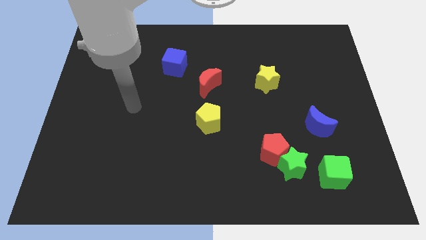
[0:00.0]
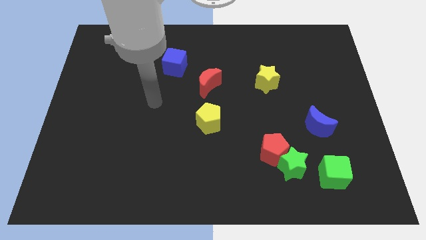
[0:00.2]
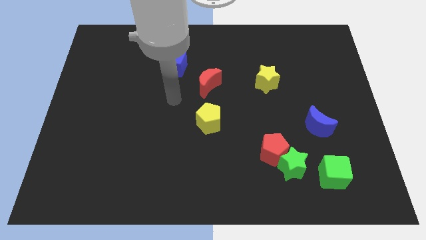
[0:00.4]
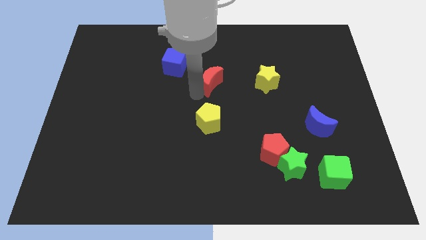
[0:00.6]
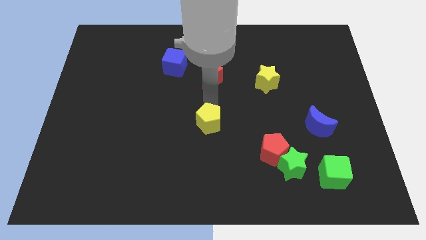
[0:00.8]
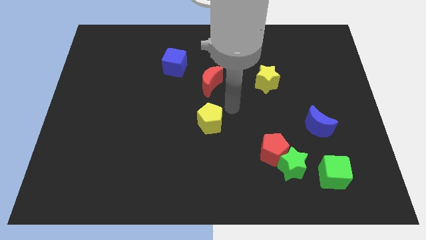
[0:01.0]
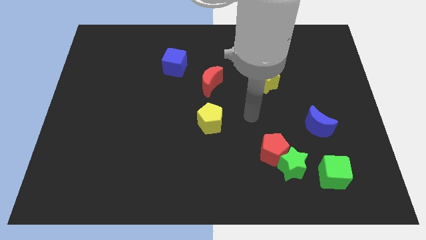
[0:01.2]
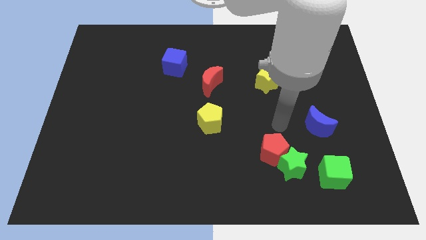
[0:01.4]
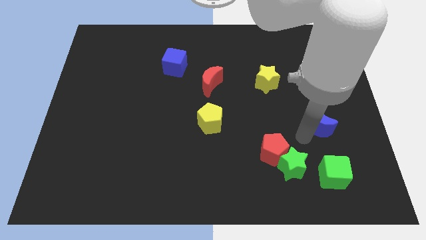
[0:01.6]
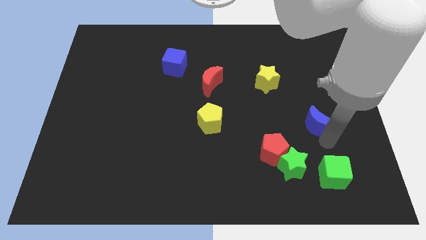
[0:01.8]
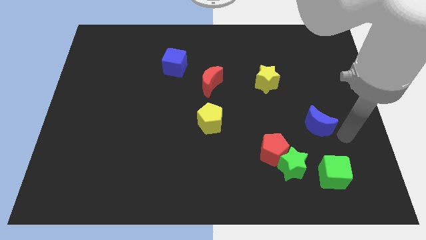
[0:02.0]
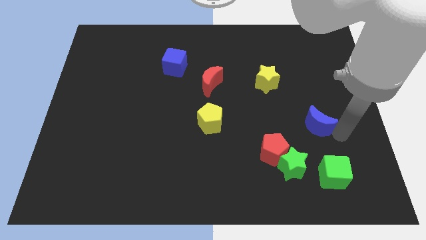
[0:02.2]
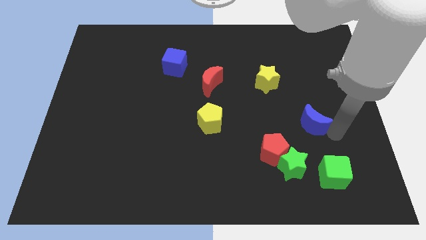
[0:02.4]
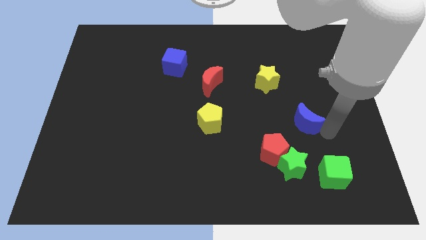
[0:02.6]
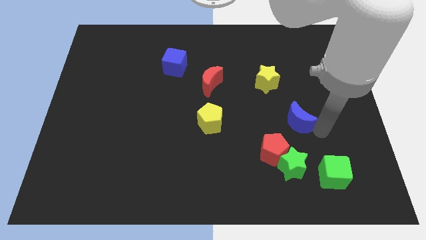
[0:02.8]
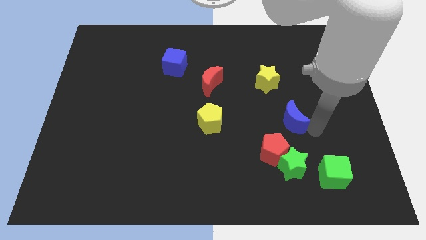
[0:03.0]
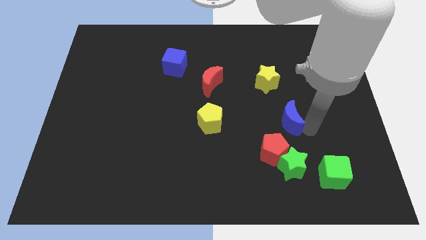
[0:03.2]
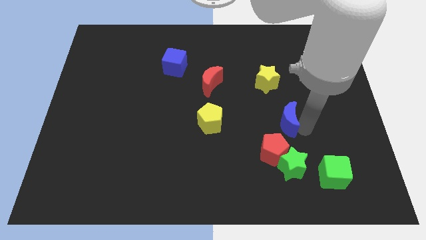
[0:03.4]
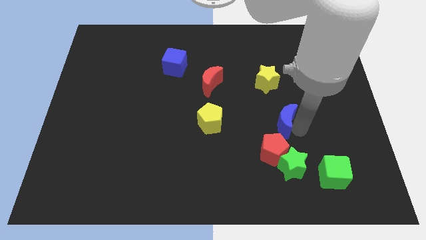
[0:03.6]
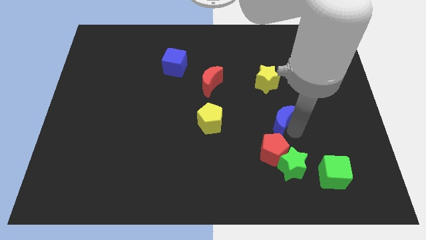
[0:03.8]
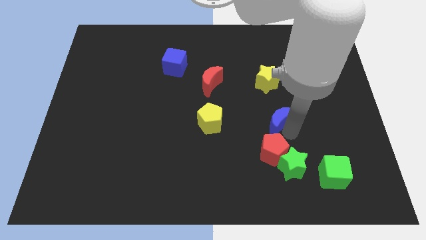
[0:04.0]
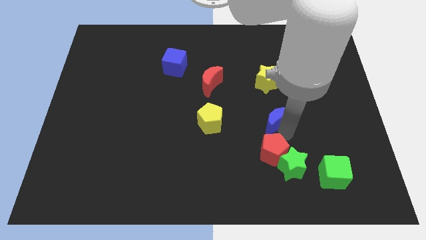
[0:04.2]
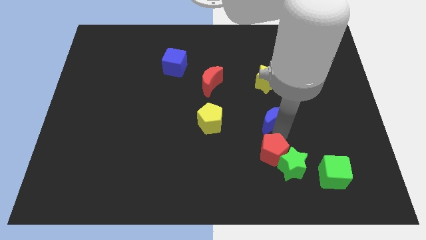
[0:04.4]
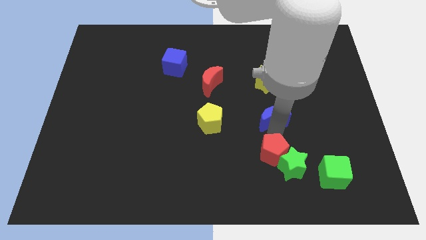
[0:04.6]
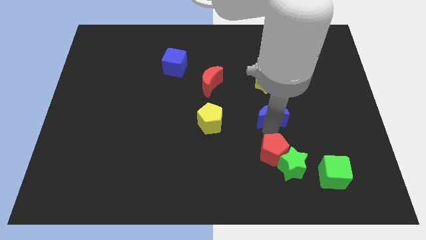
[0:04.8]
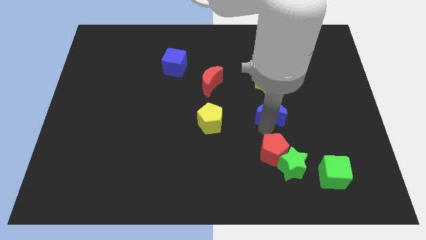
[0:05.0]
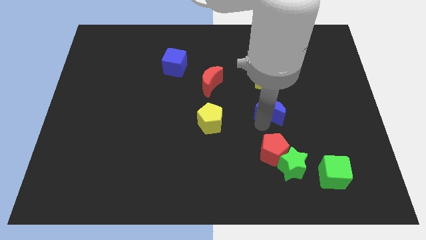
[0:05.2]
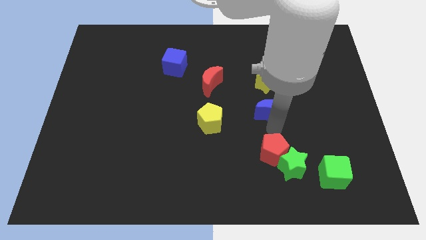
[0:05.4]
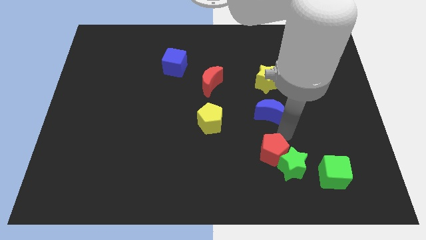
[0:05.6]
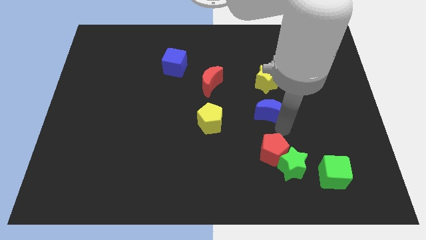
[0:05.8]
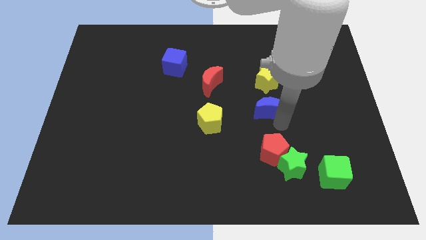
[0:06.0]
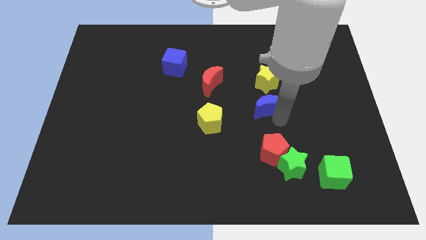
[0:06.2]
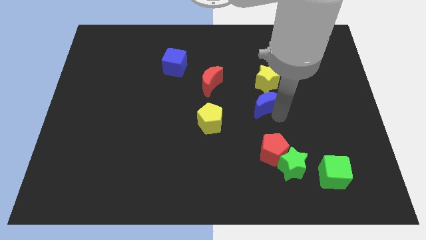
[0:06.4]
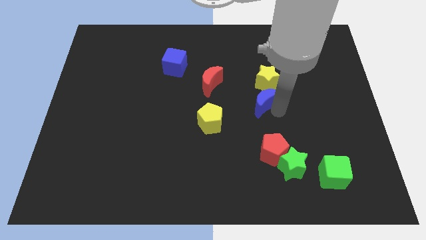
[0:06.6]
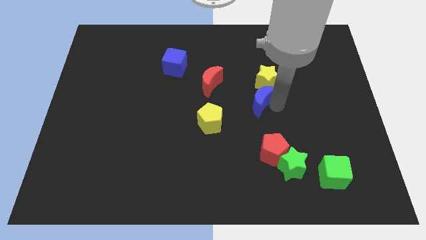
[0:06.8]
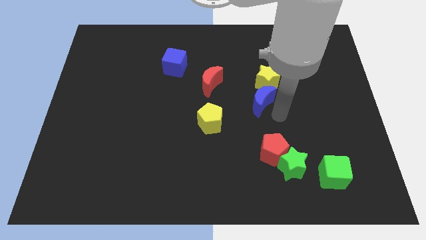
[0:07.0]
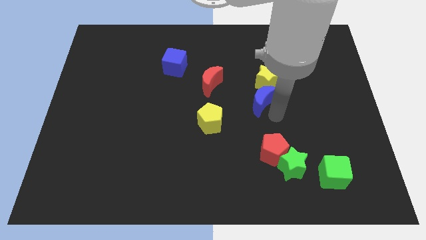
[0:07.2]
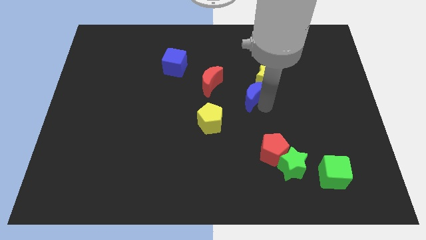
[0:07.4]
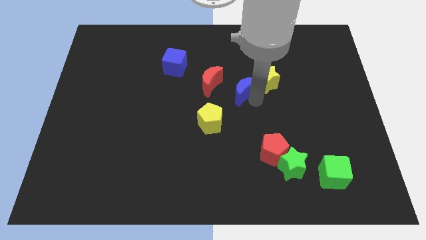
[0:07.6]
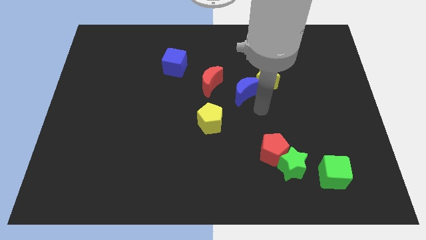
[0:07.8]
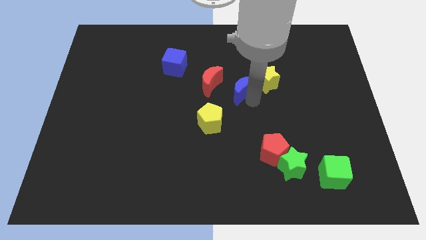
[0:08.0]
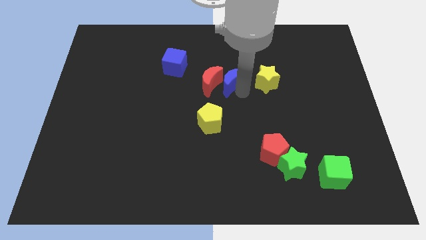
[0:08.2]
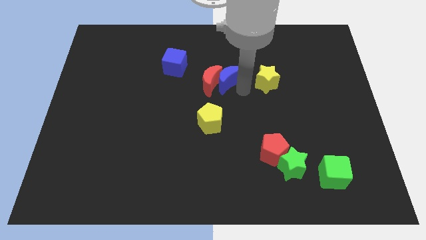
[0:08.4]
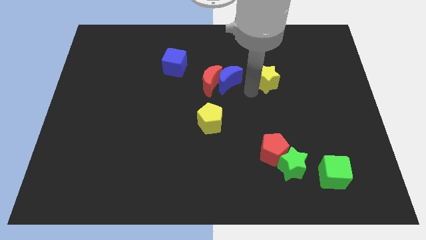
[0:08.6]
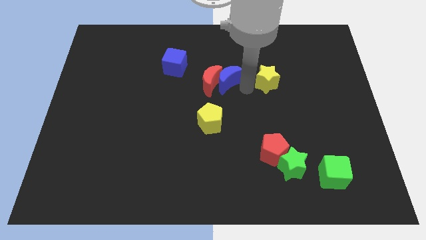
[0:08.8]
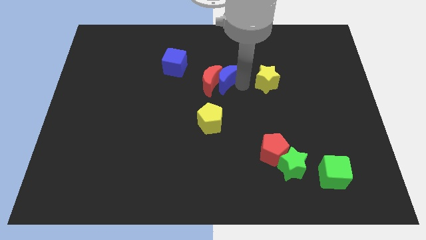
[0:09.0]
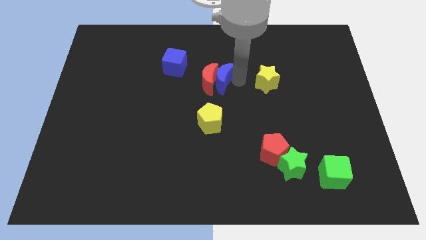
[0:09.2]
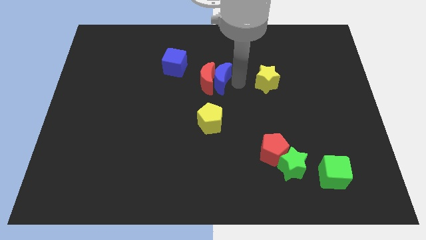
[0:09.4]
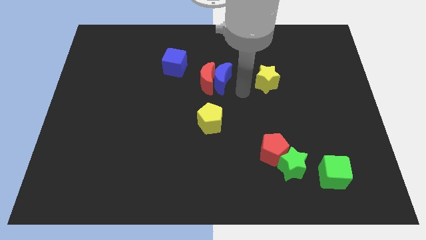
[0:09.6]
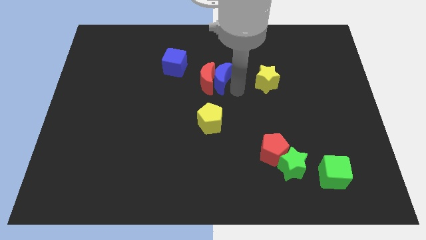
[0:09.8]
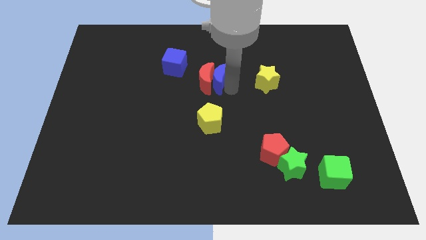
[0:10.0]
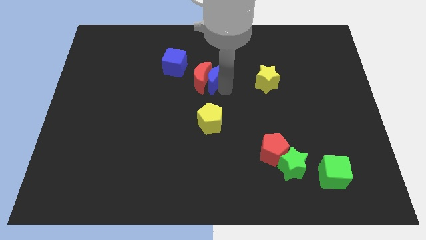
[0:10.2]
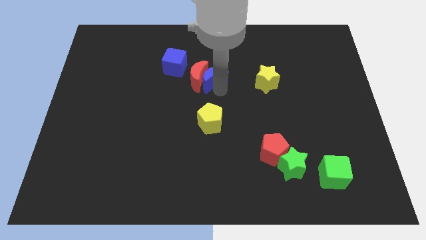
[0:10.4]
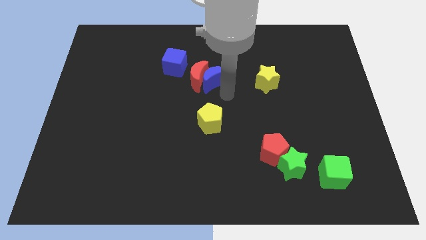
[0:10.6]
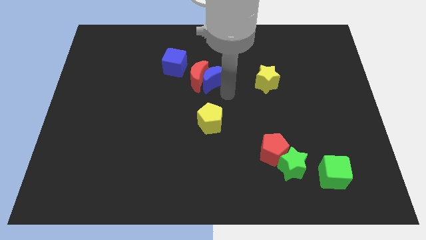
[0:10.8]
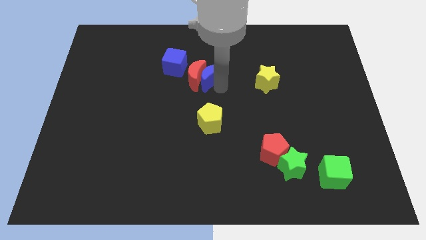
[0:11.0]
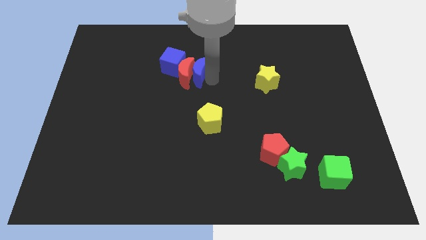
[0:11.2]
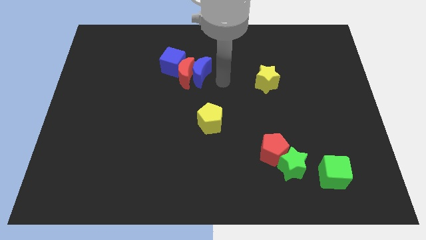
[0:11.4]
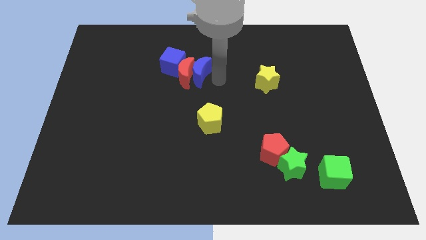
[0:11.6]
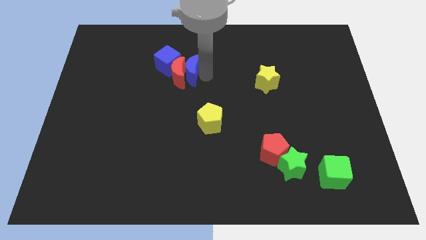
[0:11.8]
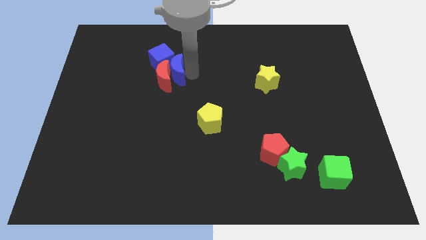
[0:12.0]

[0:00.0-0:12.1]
put the blue moon to the blue cube

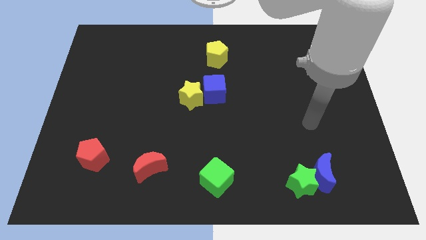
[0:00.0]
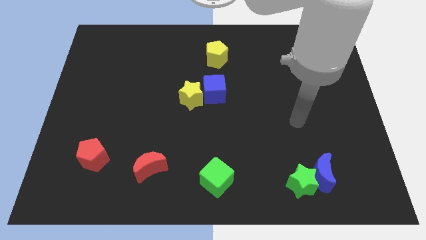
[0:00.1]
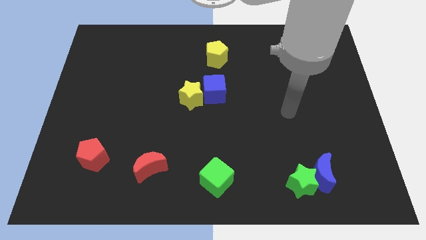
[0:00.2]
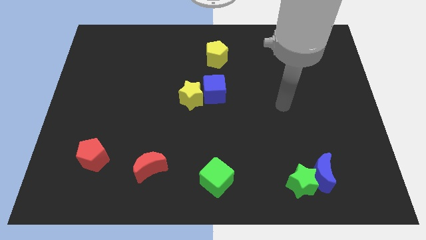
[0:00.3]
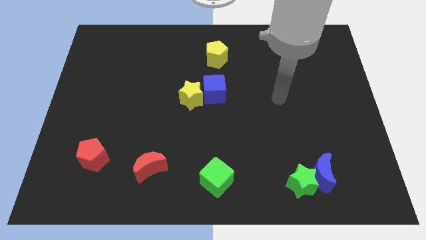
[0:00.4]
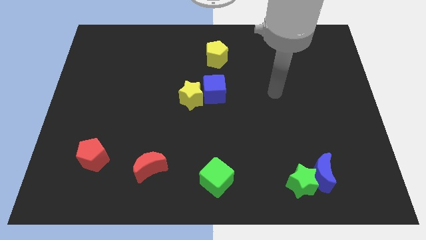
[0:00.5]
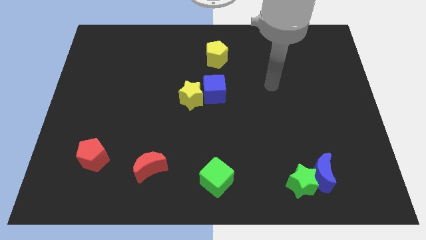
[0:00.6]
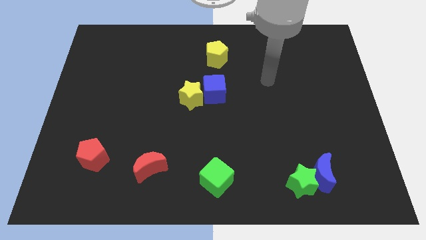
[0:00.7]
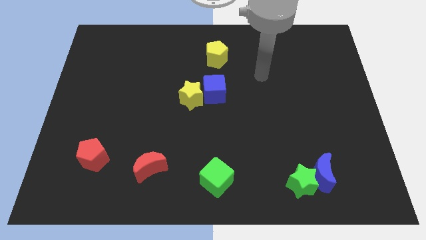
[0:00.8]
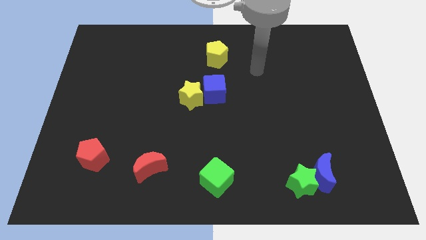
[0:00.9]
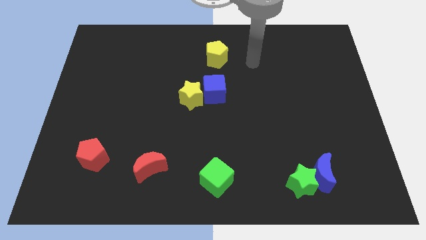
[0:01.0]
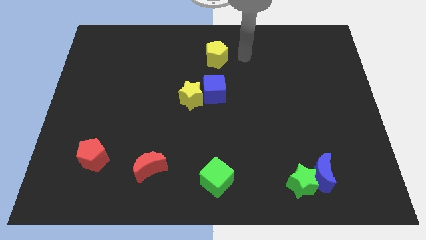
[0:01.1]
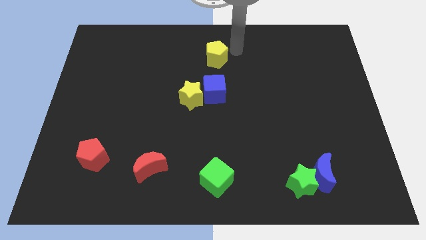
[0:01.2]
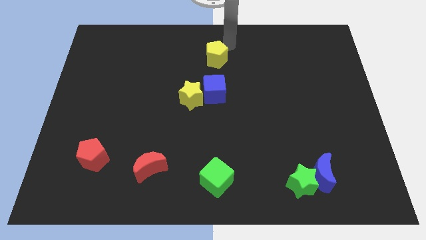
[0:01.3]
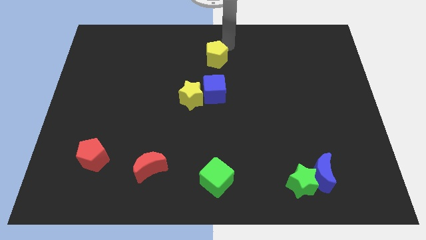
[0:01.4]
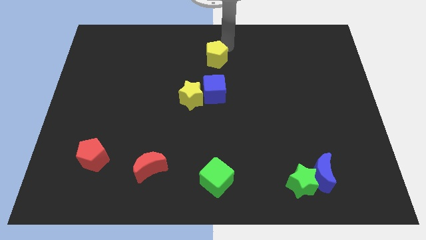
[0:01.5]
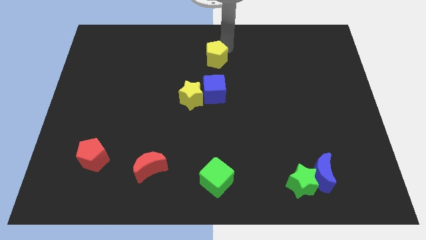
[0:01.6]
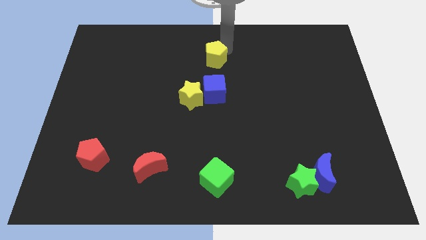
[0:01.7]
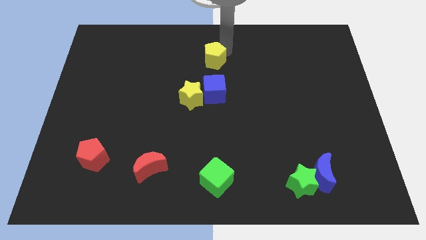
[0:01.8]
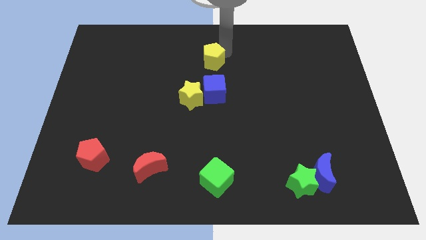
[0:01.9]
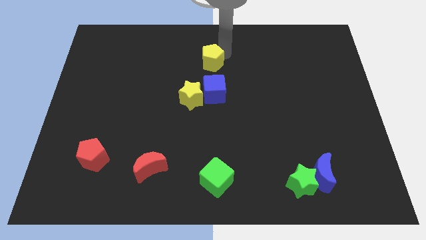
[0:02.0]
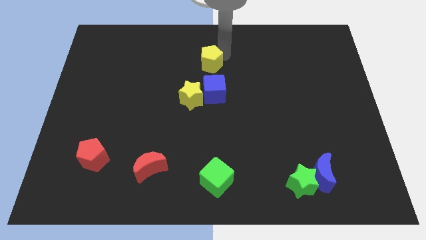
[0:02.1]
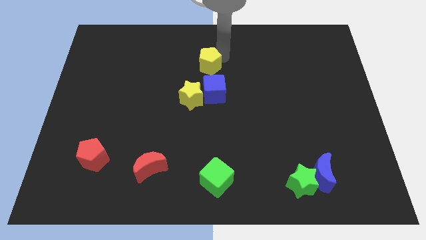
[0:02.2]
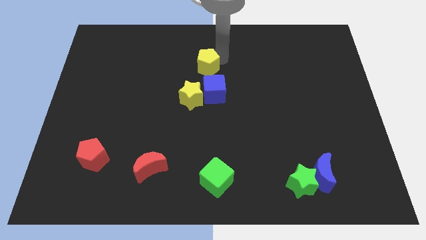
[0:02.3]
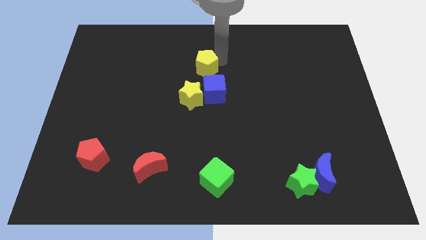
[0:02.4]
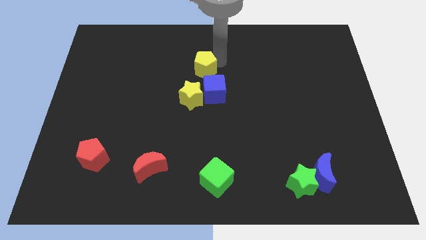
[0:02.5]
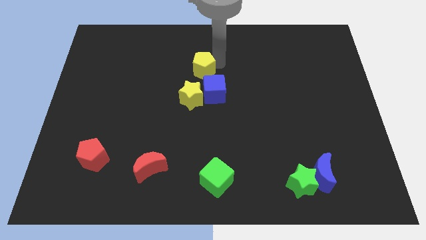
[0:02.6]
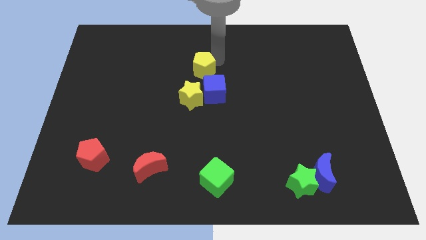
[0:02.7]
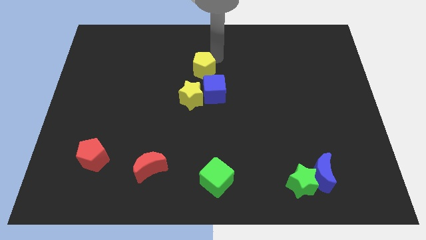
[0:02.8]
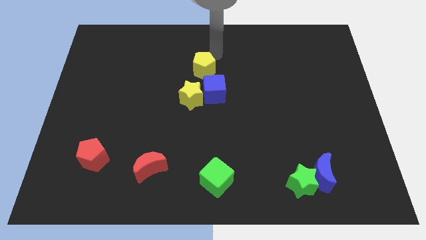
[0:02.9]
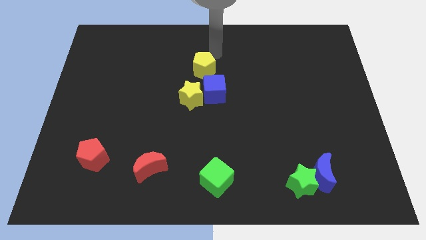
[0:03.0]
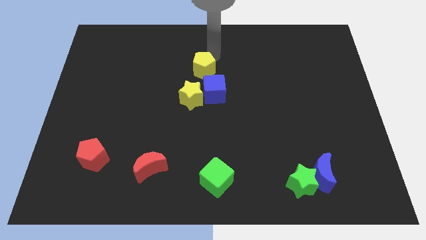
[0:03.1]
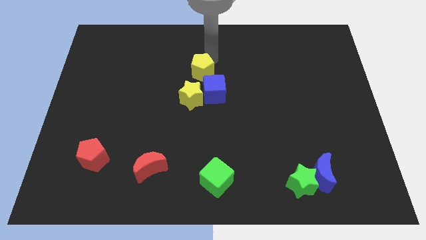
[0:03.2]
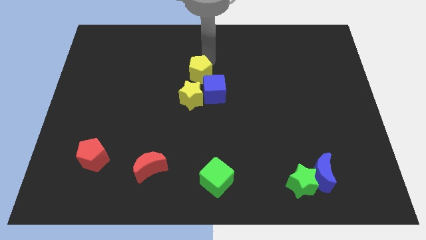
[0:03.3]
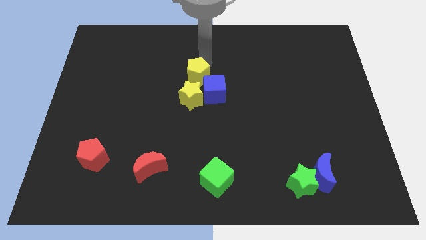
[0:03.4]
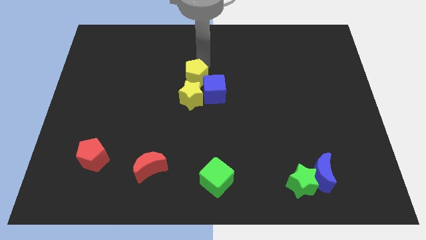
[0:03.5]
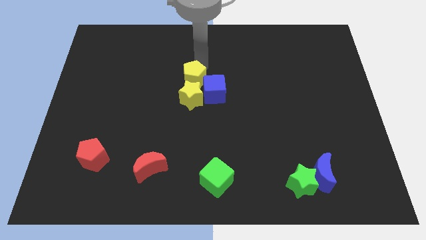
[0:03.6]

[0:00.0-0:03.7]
slide the yellow pentagon next to the yellow star
